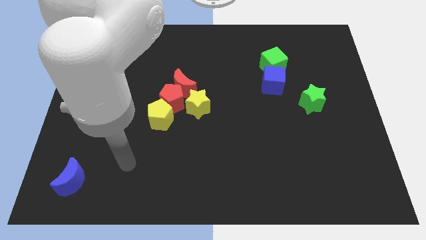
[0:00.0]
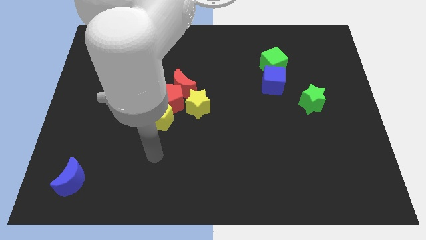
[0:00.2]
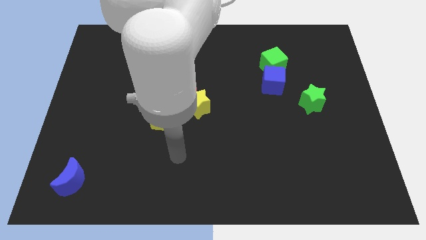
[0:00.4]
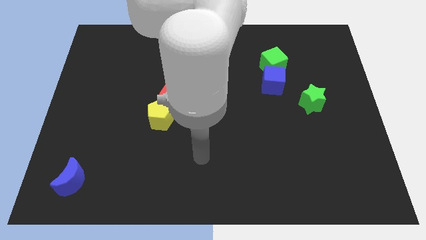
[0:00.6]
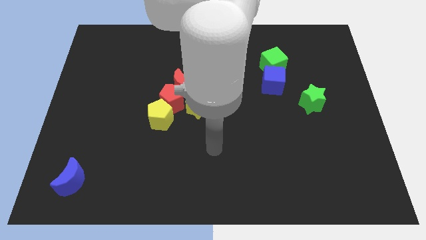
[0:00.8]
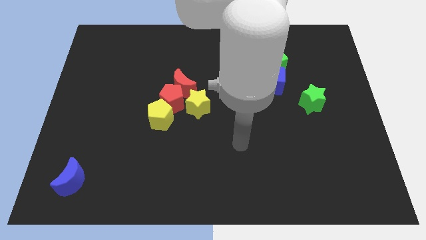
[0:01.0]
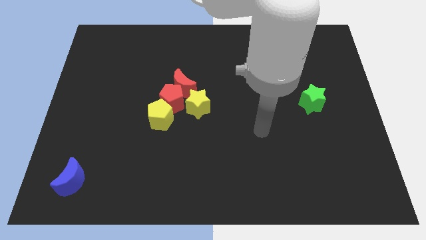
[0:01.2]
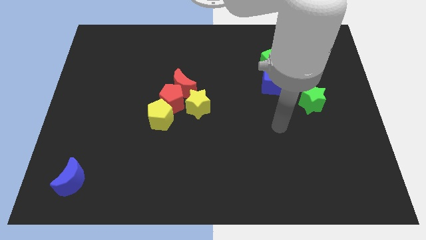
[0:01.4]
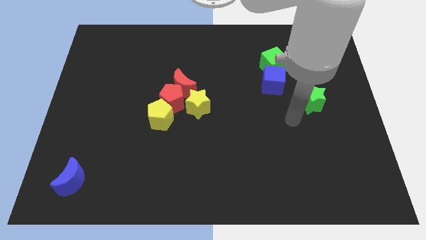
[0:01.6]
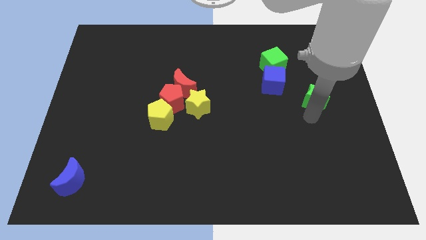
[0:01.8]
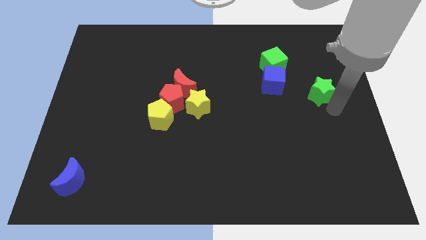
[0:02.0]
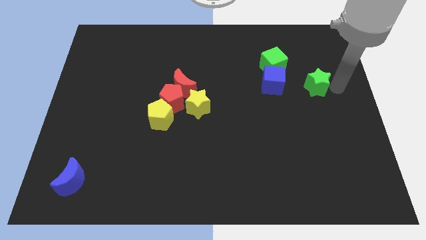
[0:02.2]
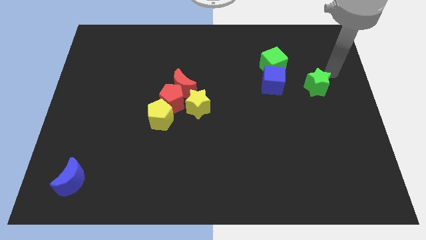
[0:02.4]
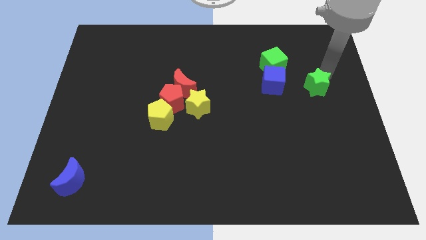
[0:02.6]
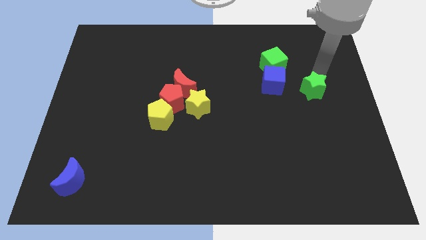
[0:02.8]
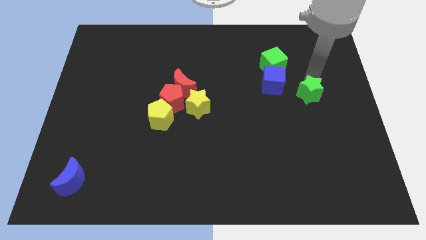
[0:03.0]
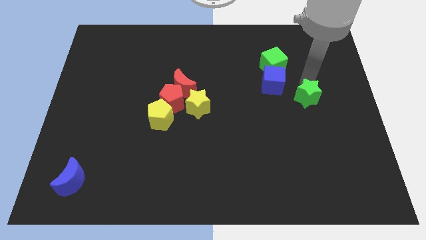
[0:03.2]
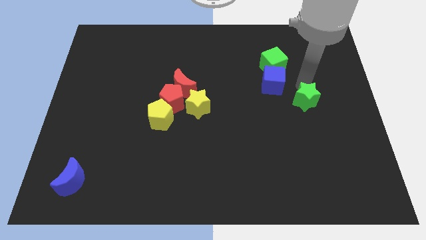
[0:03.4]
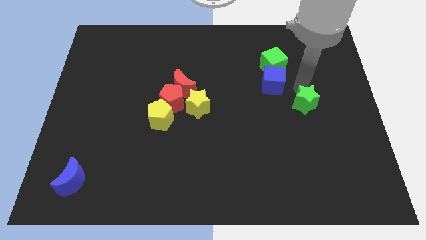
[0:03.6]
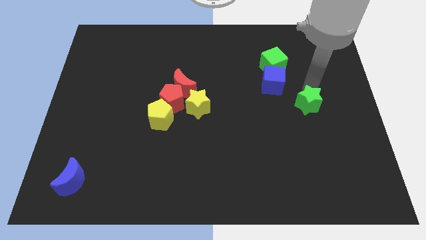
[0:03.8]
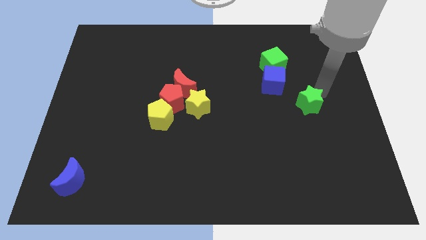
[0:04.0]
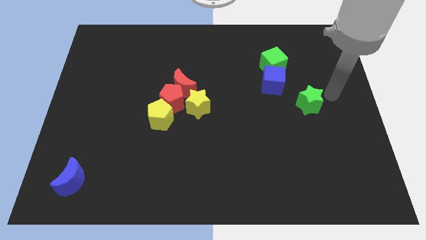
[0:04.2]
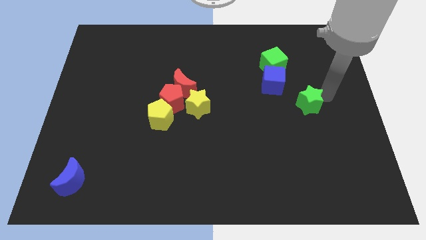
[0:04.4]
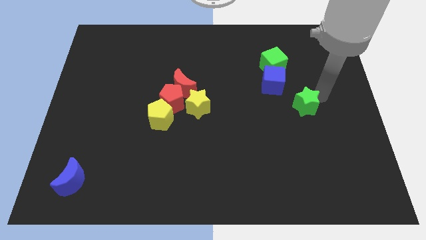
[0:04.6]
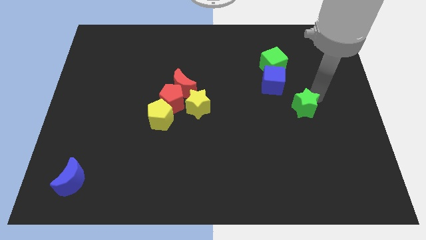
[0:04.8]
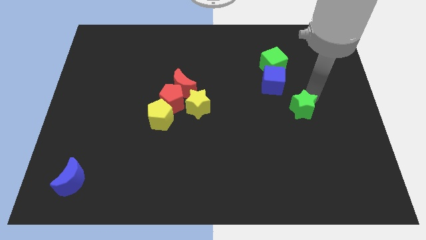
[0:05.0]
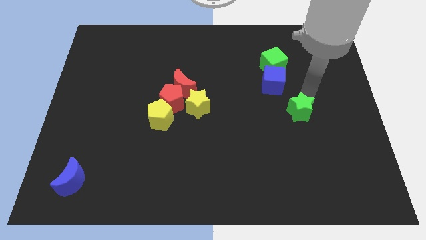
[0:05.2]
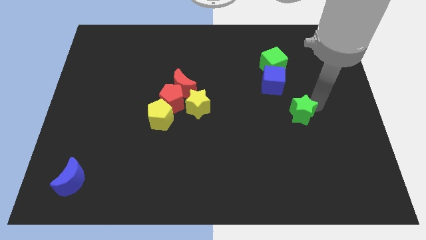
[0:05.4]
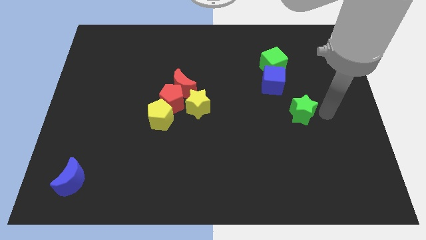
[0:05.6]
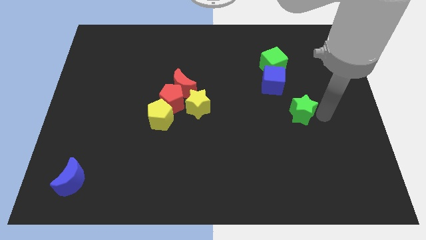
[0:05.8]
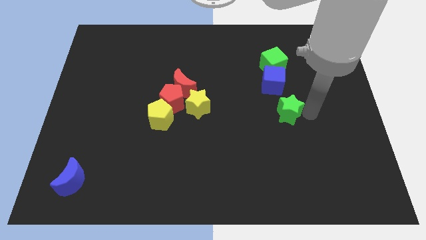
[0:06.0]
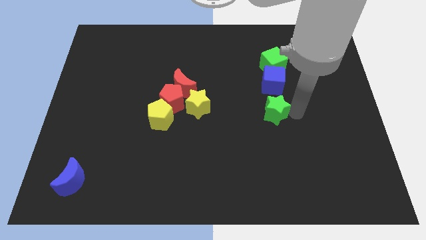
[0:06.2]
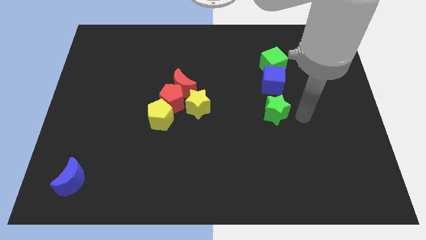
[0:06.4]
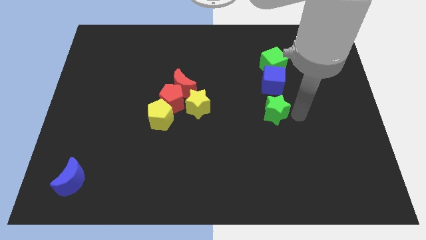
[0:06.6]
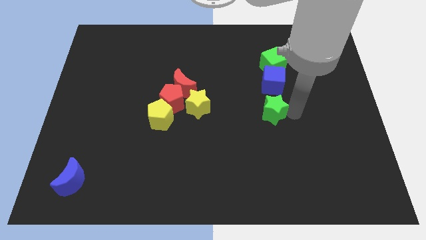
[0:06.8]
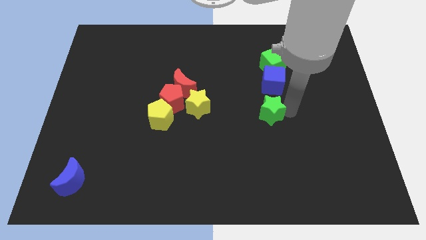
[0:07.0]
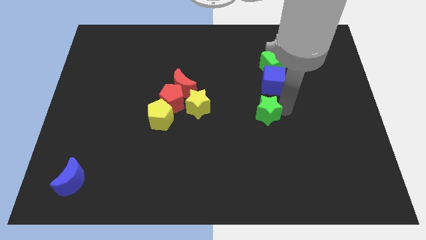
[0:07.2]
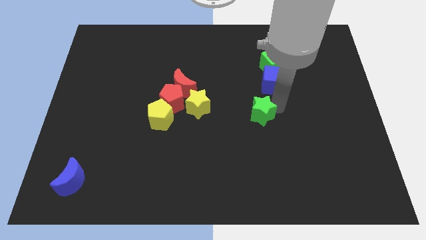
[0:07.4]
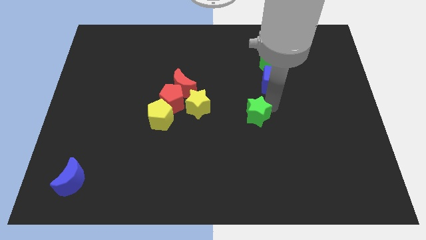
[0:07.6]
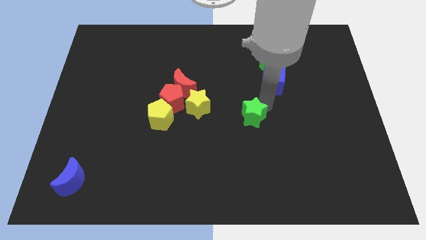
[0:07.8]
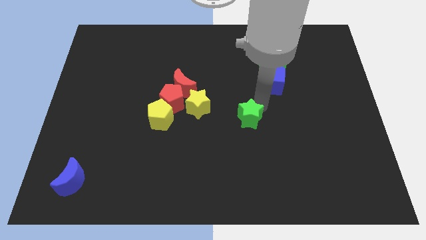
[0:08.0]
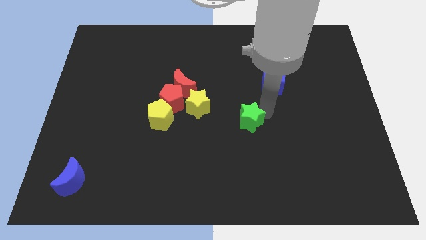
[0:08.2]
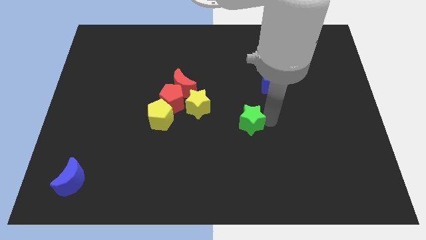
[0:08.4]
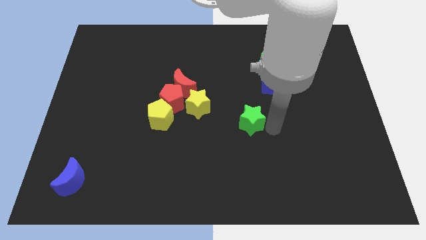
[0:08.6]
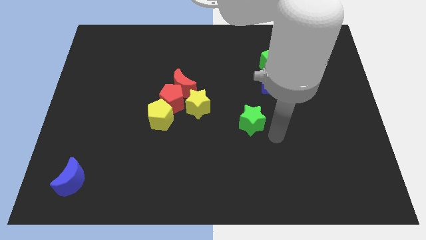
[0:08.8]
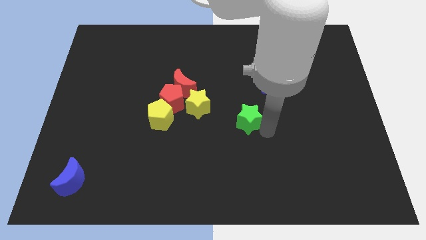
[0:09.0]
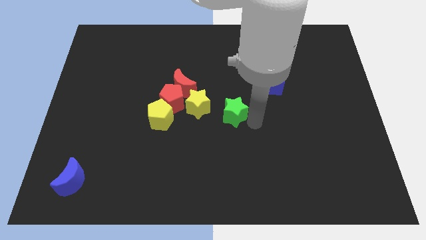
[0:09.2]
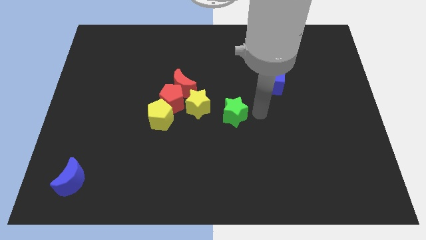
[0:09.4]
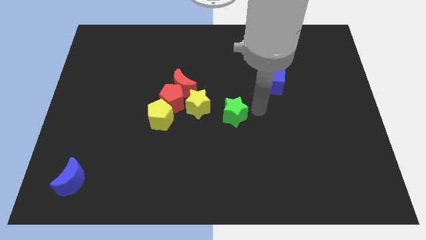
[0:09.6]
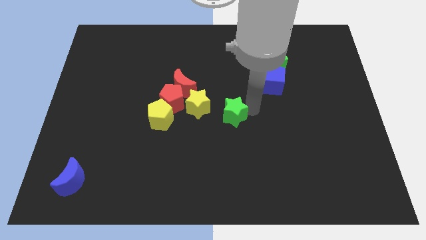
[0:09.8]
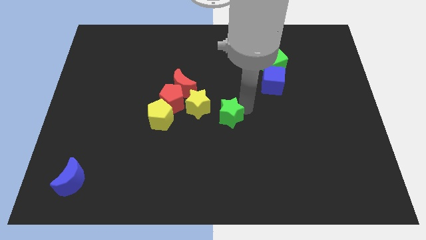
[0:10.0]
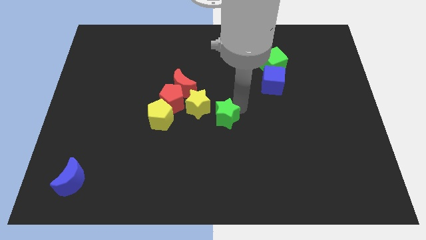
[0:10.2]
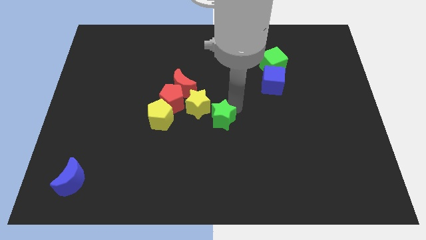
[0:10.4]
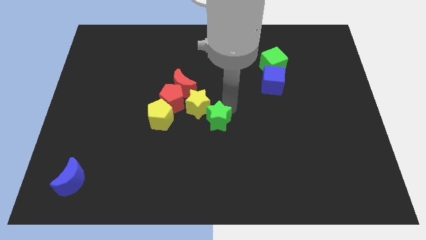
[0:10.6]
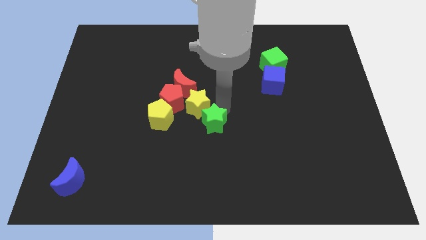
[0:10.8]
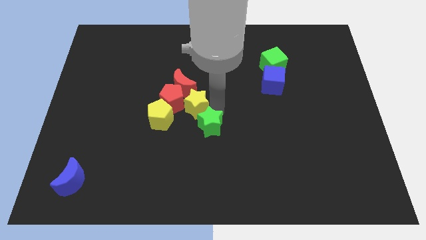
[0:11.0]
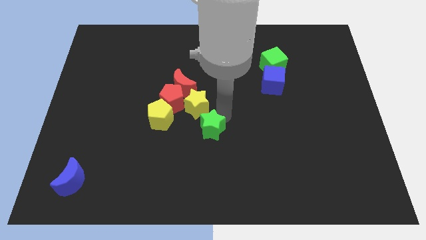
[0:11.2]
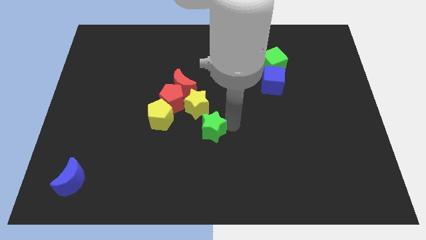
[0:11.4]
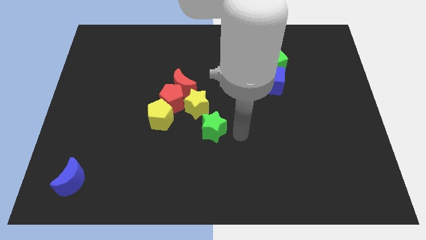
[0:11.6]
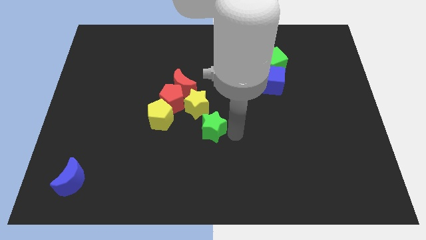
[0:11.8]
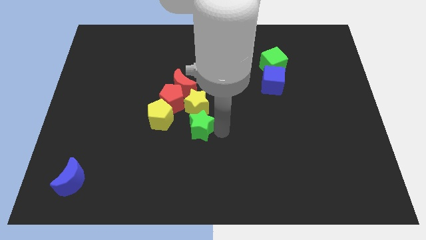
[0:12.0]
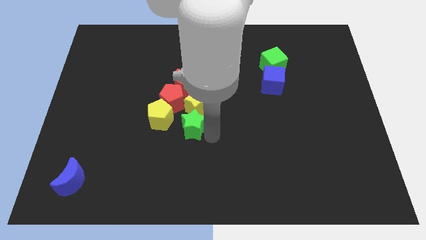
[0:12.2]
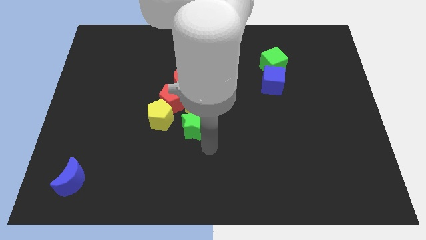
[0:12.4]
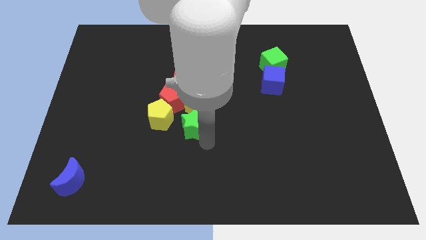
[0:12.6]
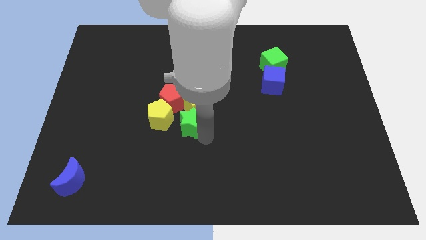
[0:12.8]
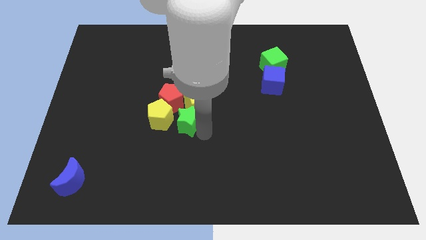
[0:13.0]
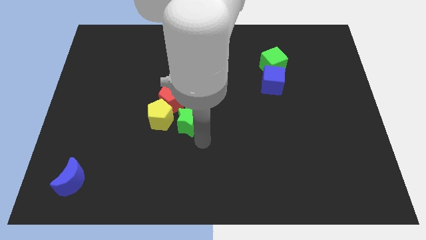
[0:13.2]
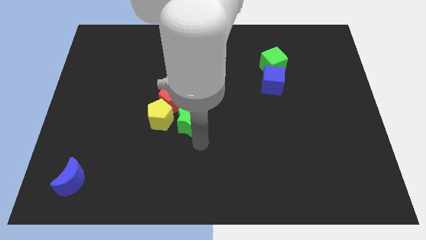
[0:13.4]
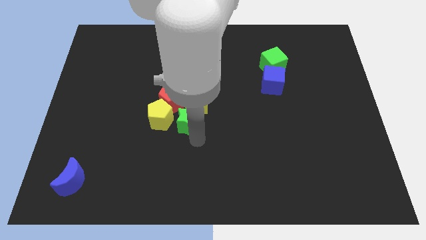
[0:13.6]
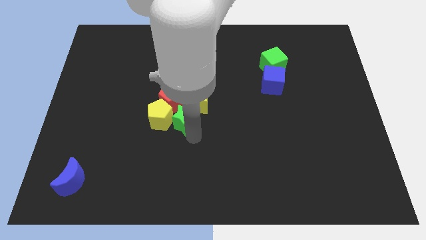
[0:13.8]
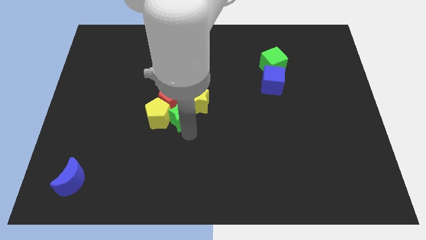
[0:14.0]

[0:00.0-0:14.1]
slide the green star close to the red pentagon
